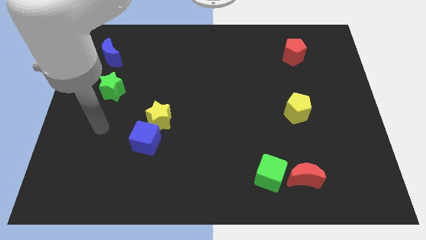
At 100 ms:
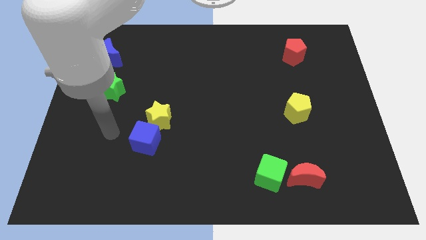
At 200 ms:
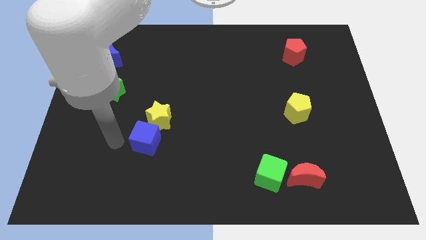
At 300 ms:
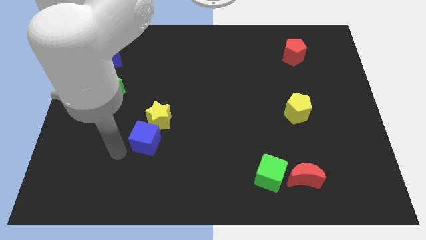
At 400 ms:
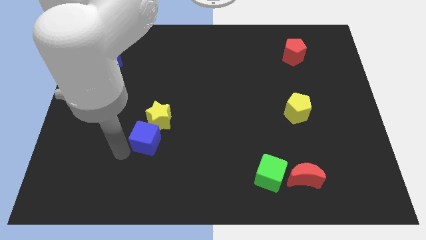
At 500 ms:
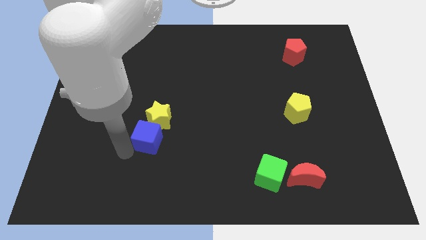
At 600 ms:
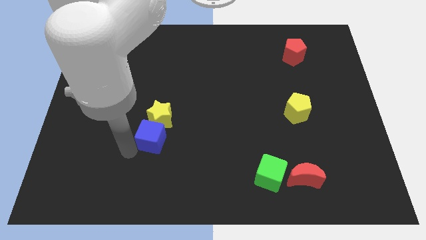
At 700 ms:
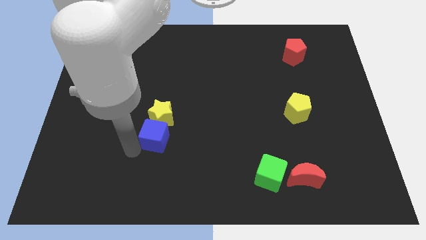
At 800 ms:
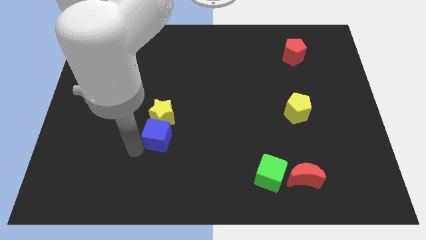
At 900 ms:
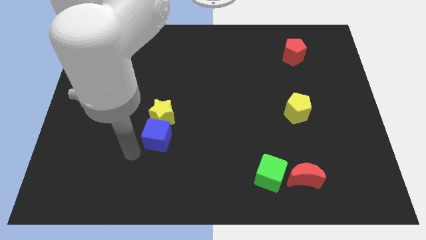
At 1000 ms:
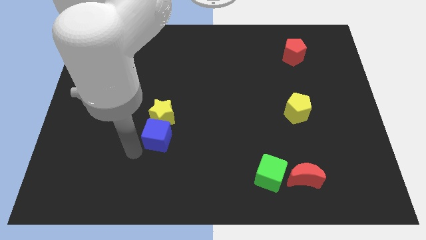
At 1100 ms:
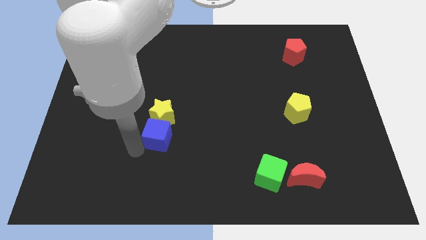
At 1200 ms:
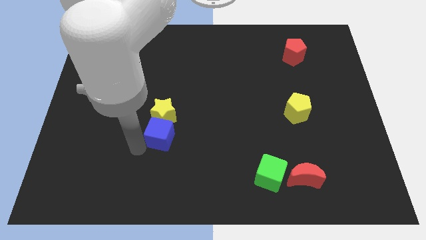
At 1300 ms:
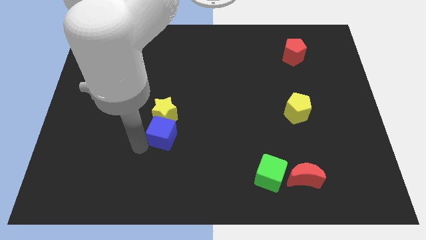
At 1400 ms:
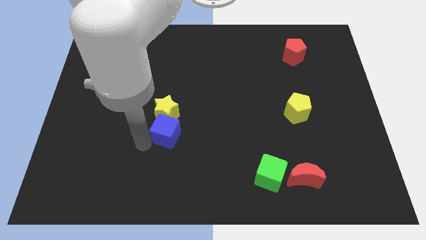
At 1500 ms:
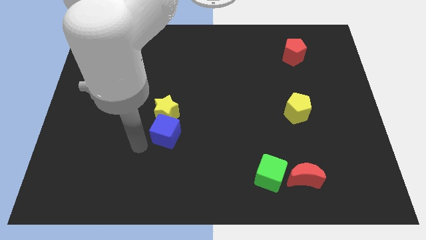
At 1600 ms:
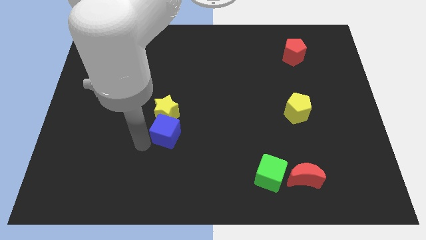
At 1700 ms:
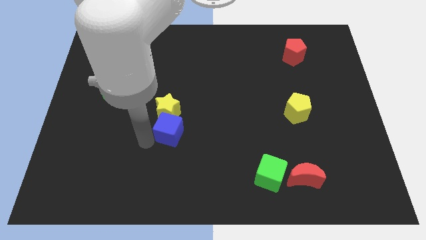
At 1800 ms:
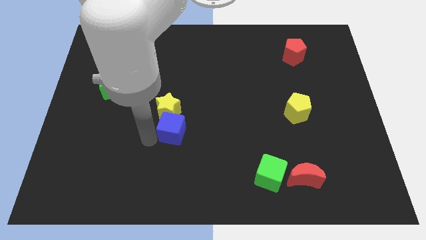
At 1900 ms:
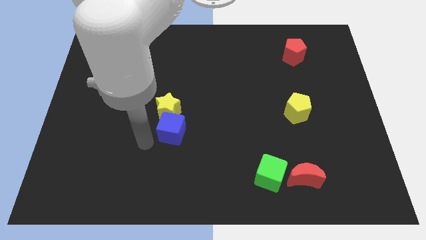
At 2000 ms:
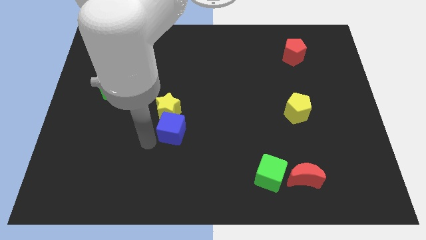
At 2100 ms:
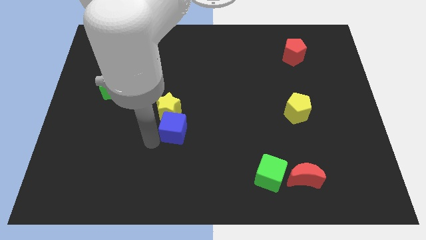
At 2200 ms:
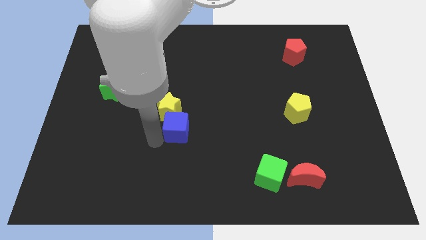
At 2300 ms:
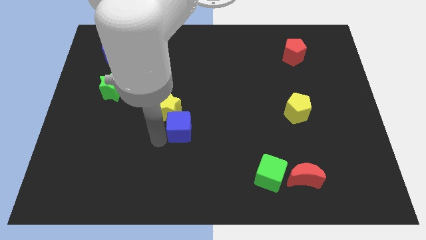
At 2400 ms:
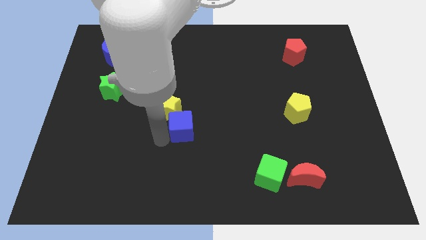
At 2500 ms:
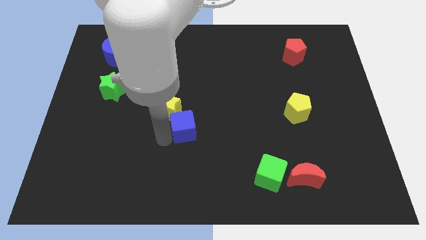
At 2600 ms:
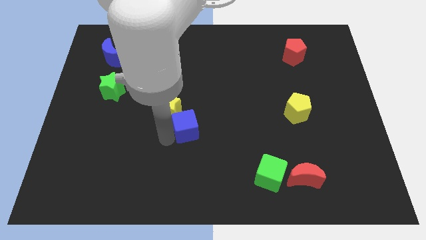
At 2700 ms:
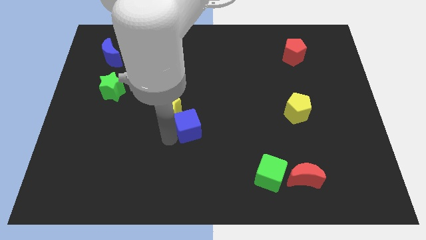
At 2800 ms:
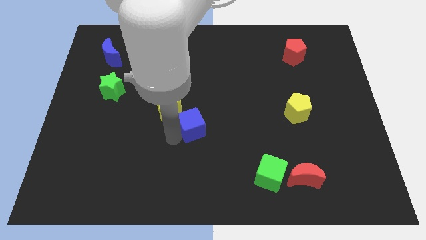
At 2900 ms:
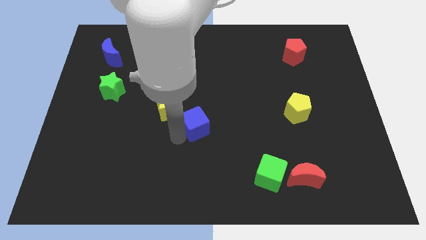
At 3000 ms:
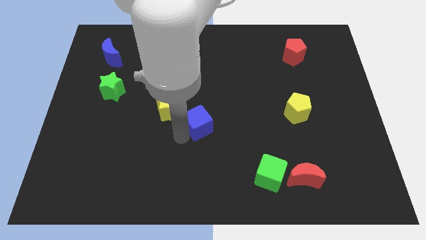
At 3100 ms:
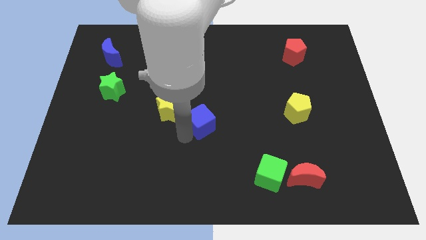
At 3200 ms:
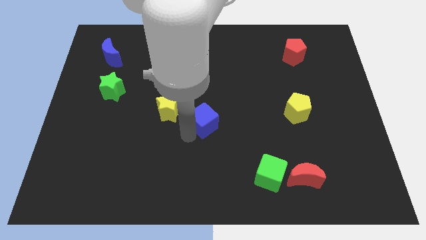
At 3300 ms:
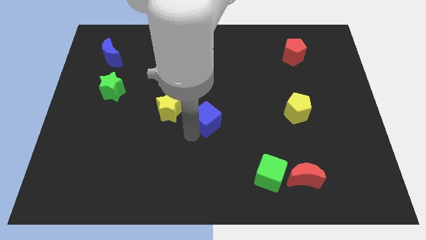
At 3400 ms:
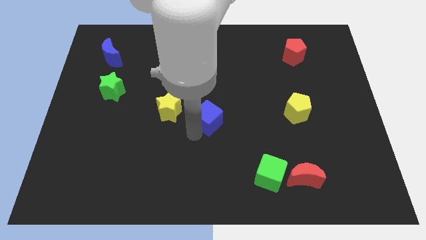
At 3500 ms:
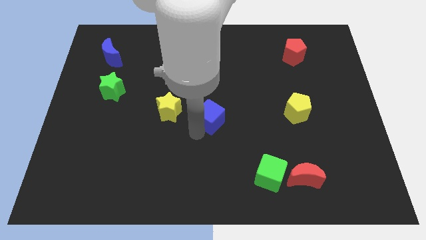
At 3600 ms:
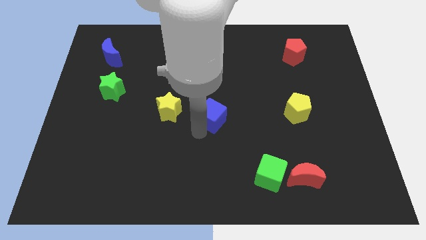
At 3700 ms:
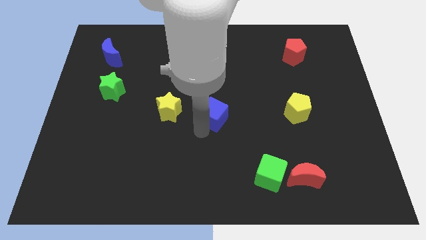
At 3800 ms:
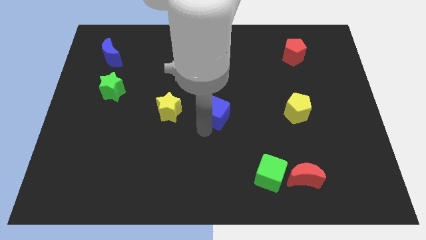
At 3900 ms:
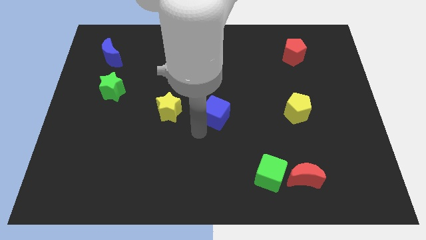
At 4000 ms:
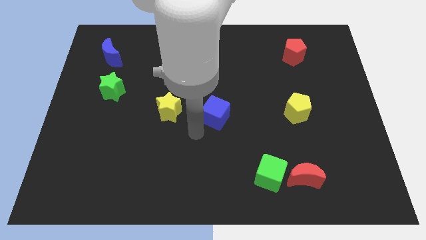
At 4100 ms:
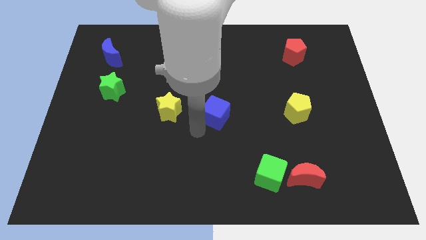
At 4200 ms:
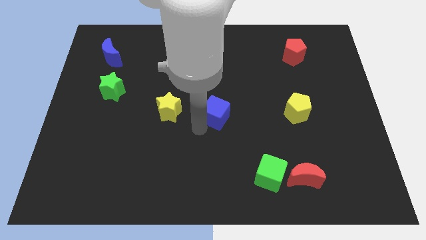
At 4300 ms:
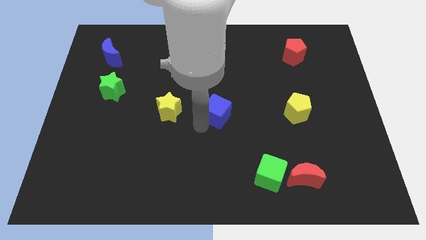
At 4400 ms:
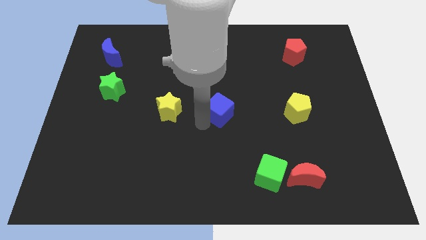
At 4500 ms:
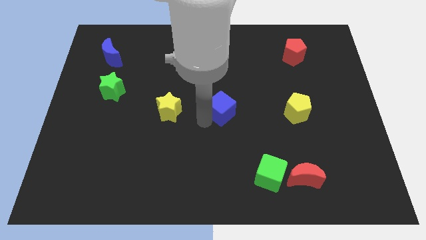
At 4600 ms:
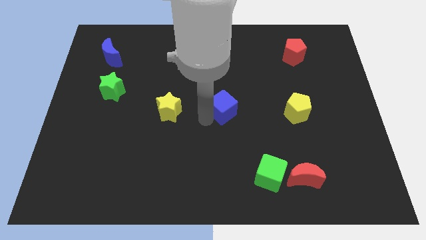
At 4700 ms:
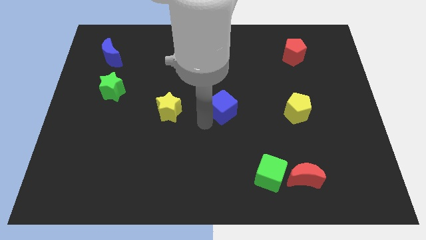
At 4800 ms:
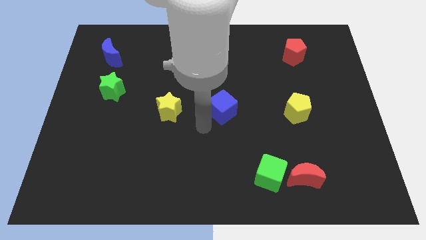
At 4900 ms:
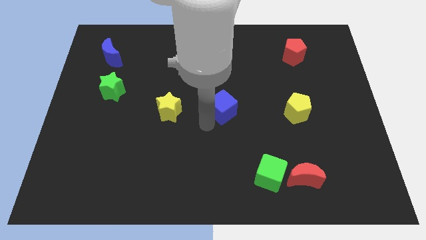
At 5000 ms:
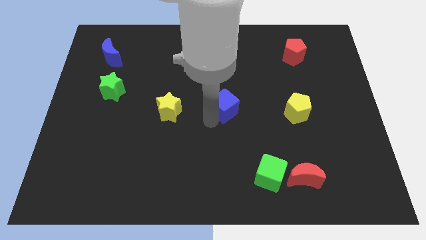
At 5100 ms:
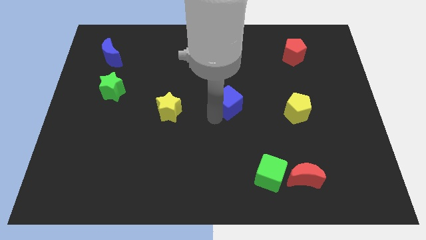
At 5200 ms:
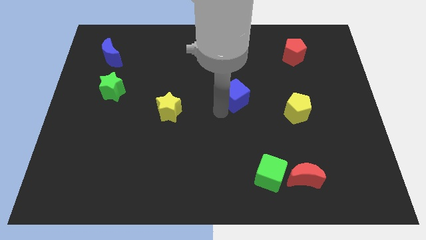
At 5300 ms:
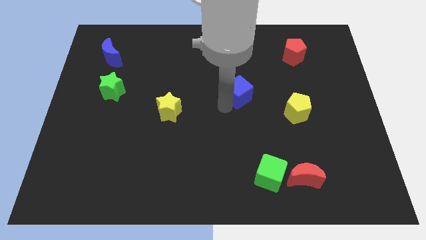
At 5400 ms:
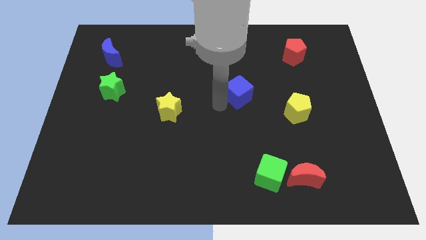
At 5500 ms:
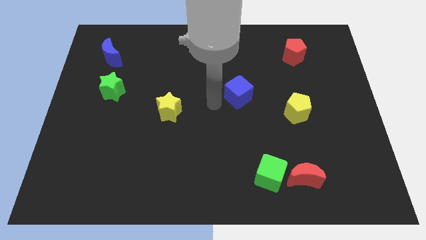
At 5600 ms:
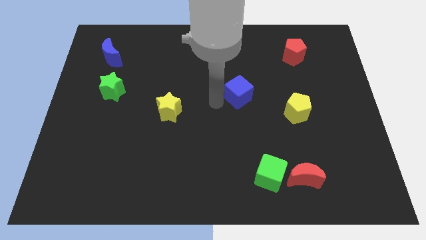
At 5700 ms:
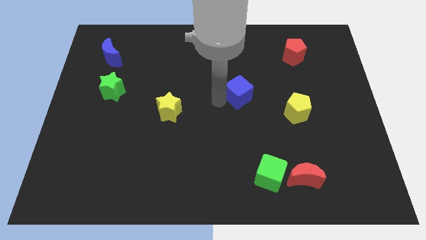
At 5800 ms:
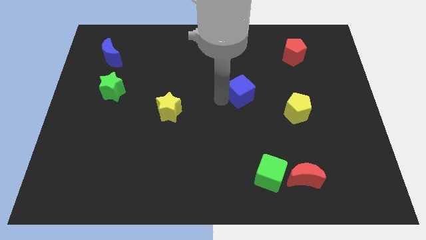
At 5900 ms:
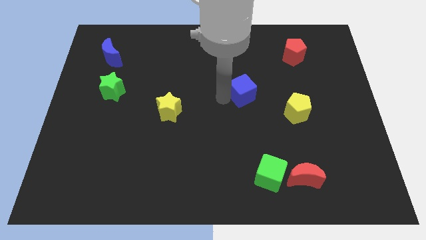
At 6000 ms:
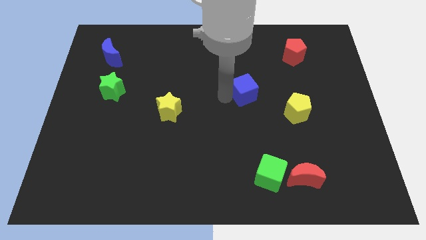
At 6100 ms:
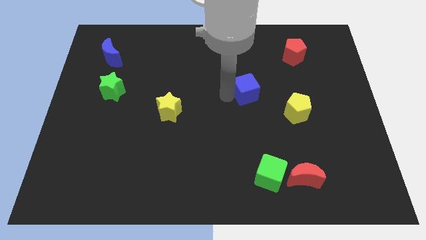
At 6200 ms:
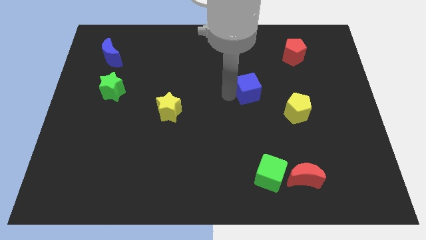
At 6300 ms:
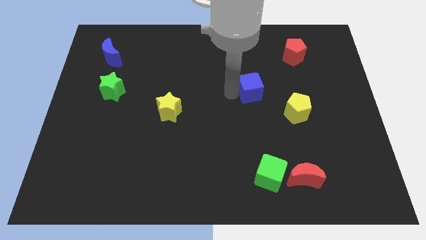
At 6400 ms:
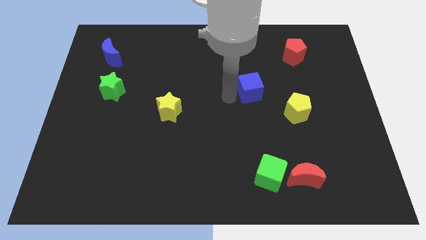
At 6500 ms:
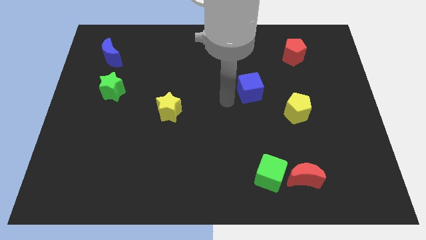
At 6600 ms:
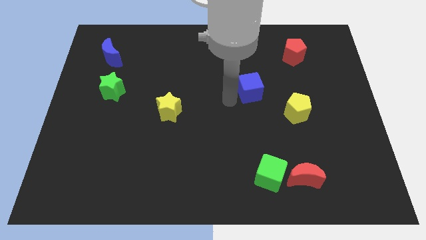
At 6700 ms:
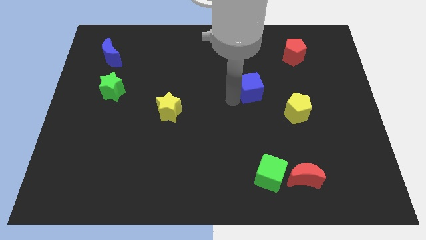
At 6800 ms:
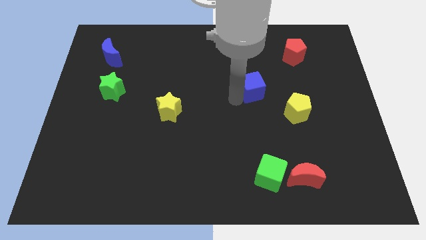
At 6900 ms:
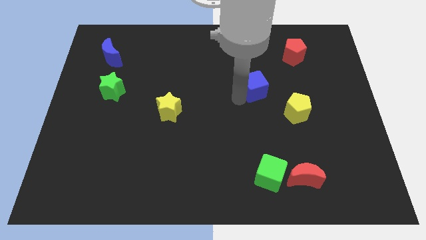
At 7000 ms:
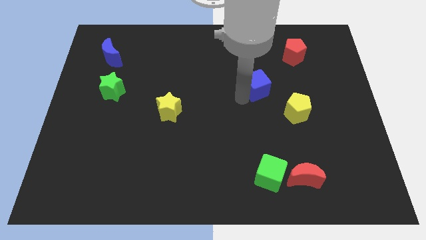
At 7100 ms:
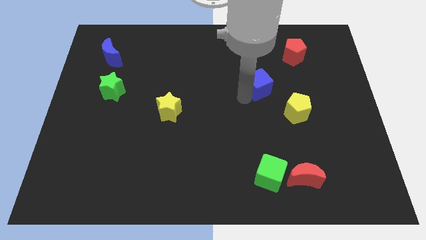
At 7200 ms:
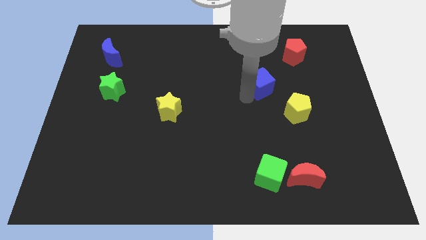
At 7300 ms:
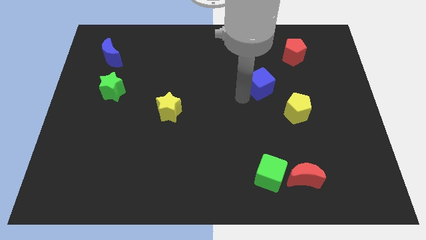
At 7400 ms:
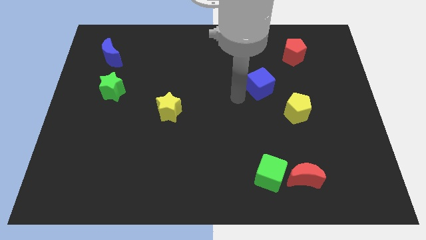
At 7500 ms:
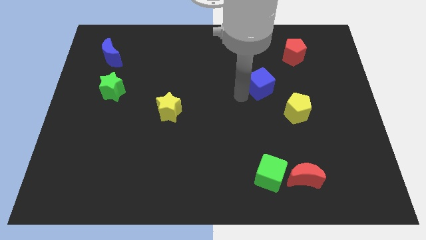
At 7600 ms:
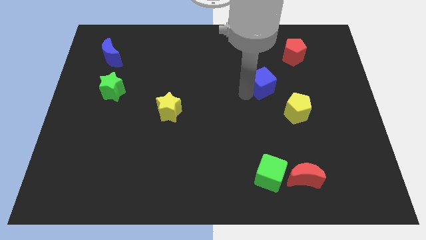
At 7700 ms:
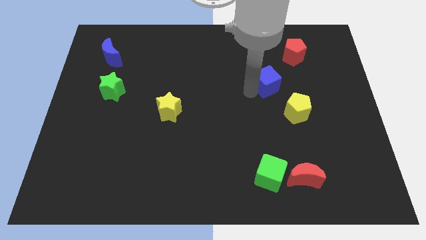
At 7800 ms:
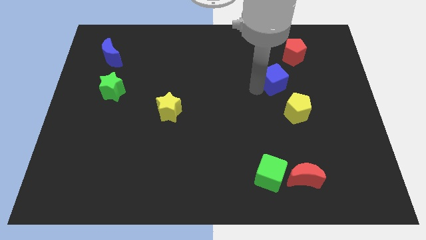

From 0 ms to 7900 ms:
push the blue cube above the yellow pentagon
